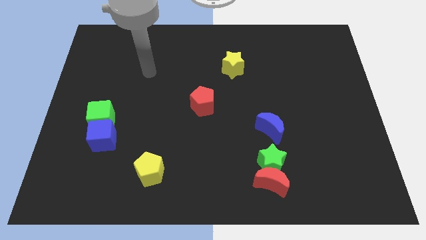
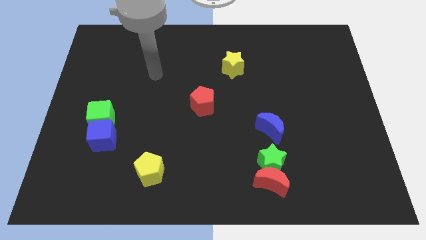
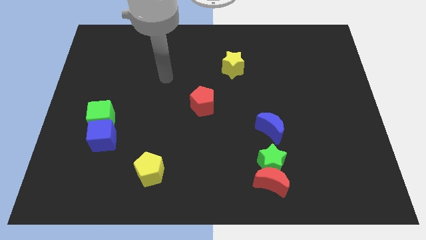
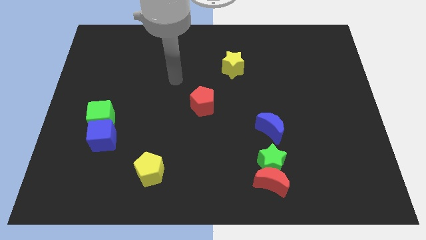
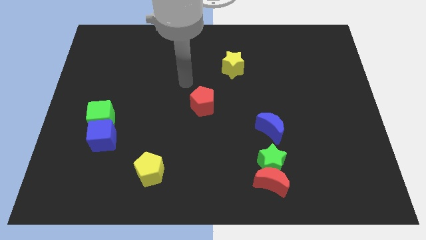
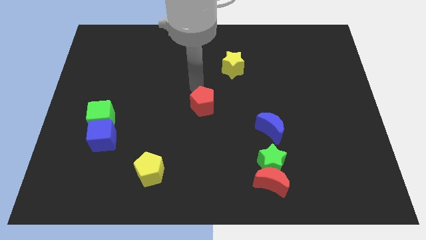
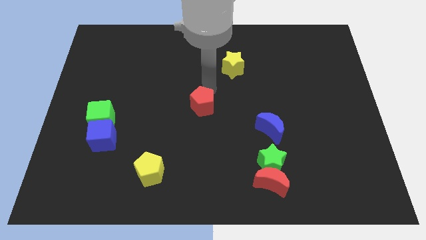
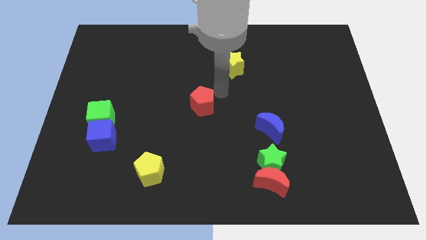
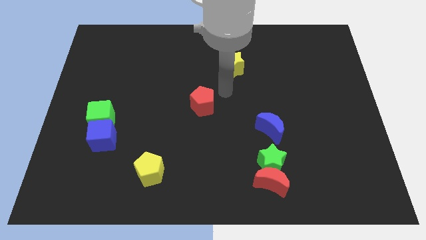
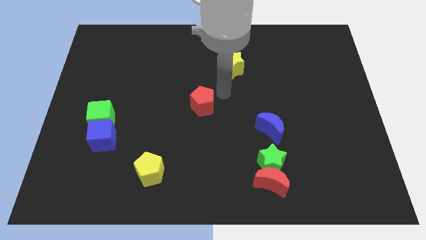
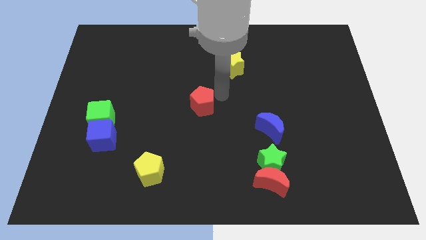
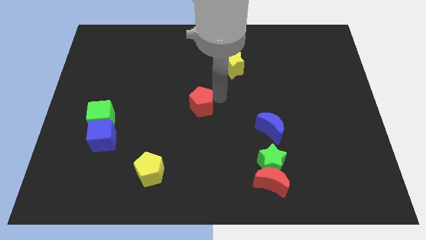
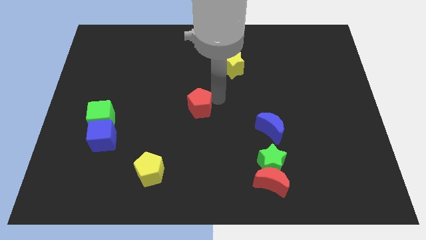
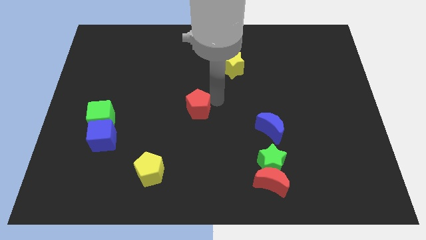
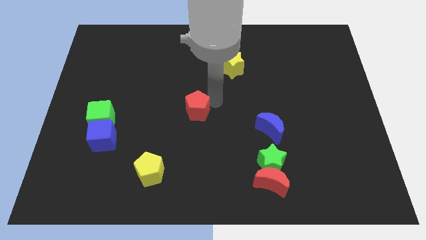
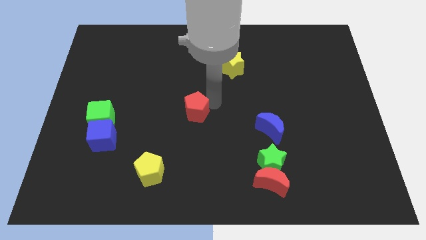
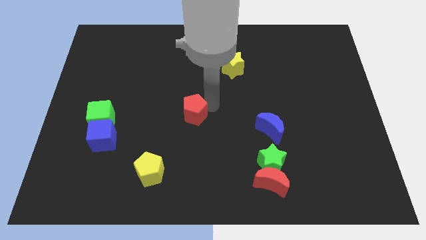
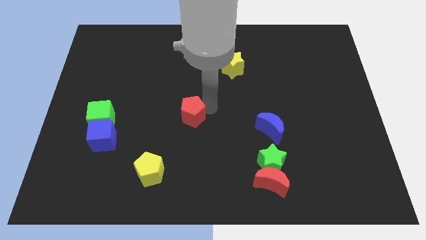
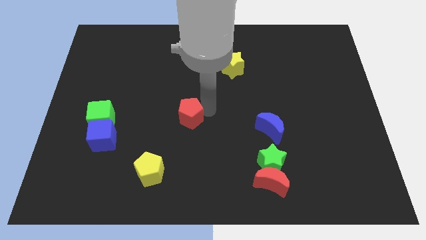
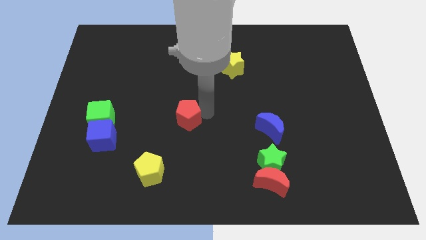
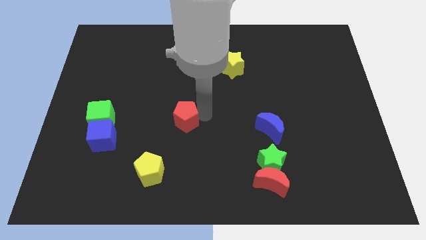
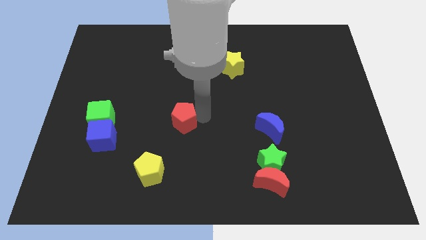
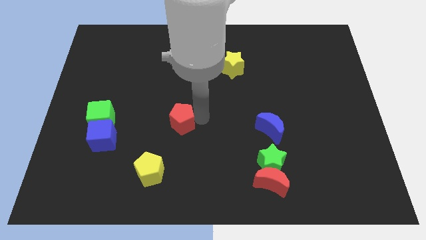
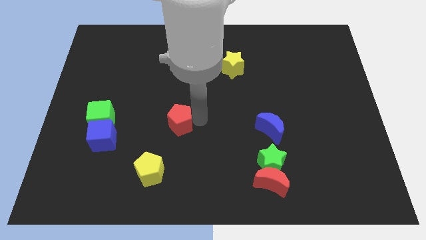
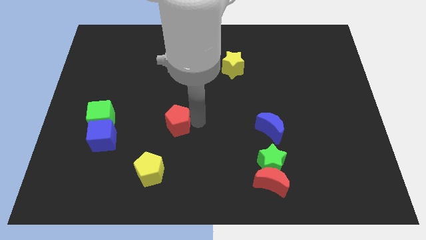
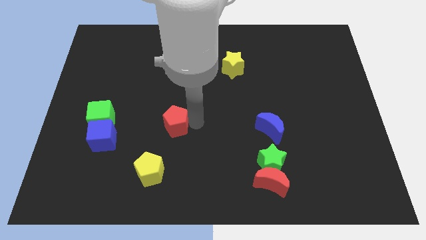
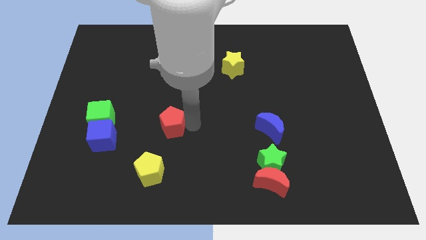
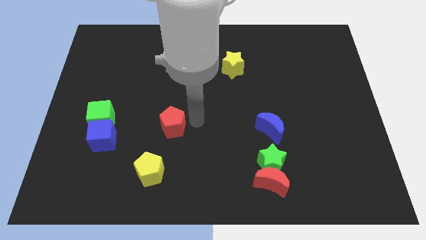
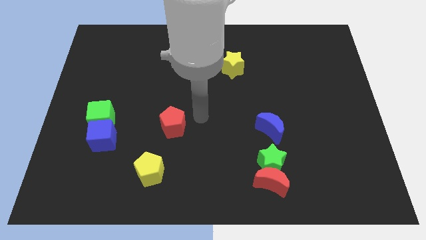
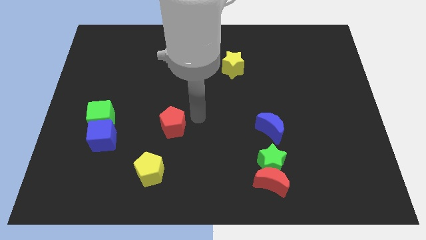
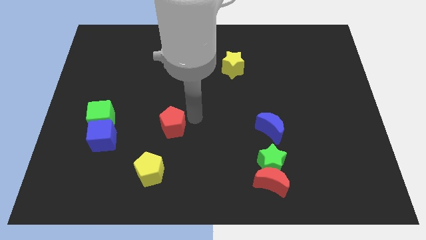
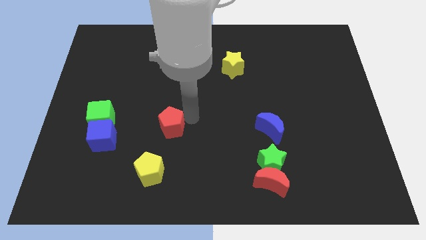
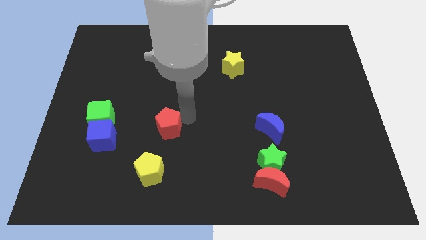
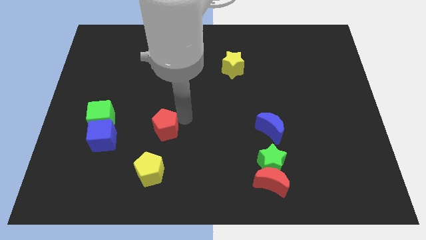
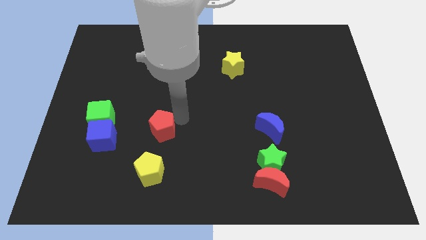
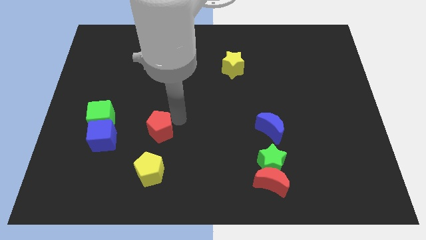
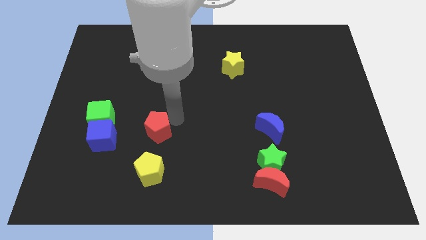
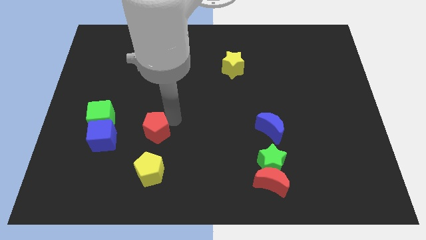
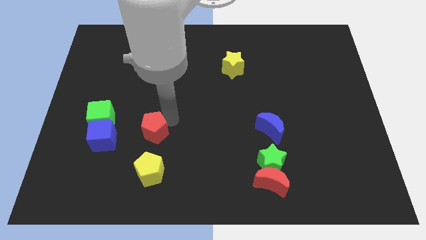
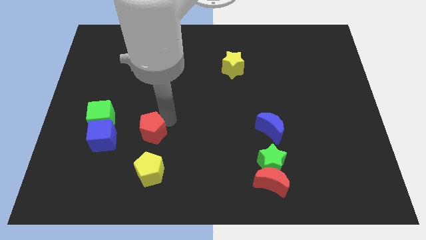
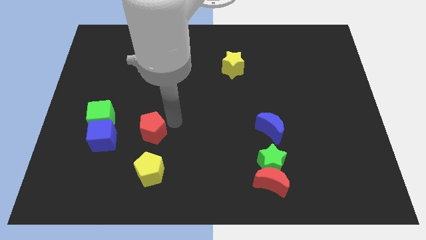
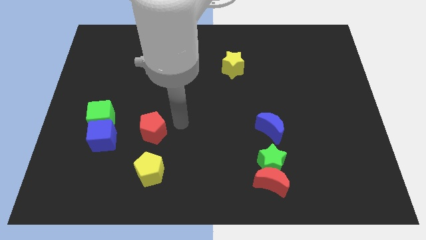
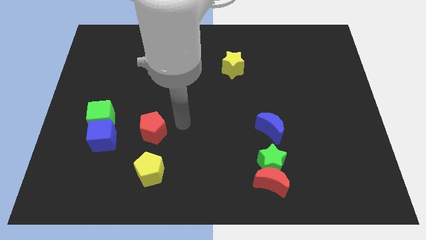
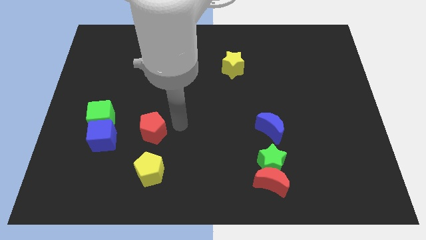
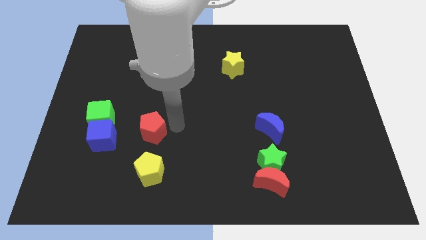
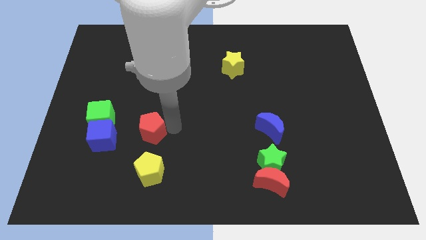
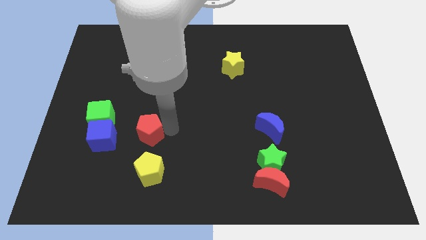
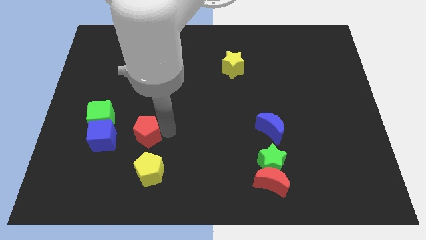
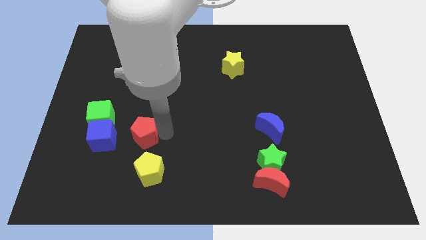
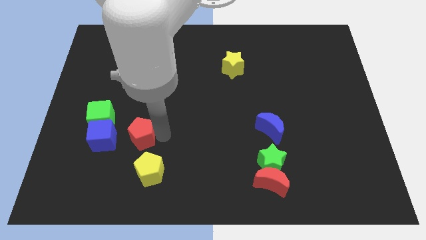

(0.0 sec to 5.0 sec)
slide the red pentagon to the bottom right of the green cube

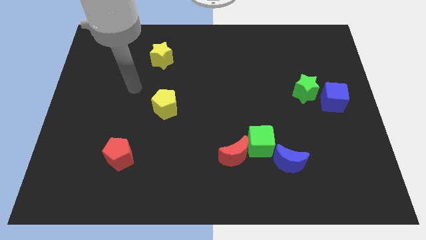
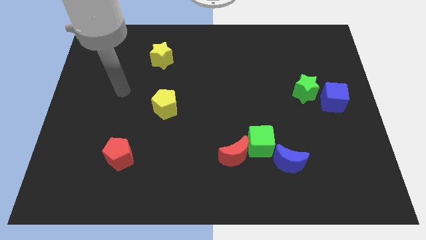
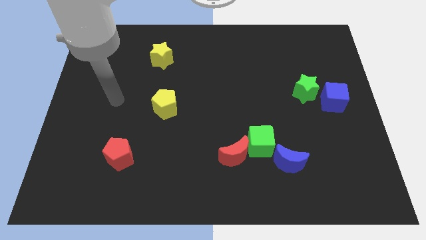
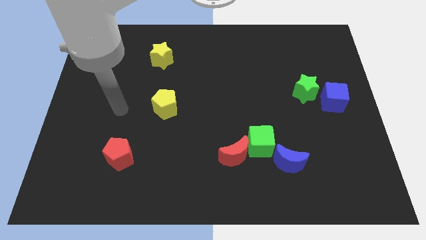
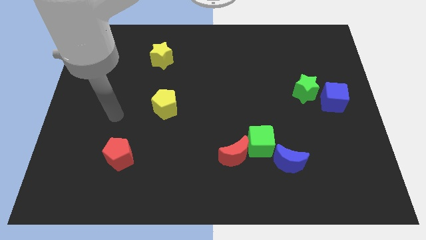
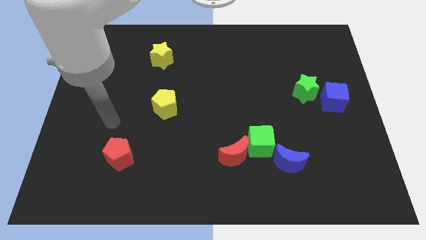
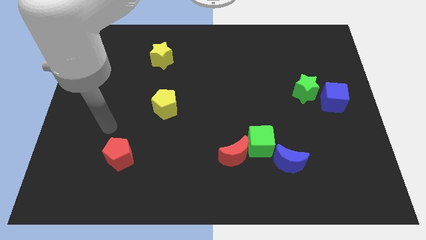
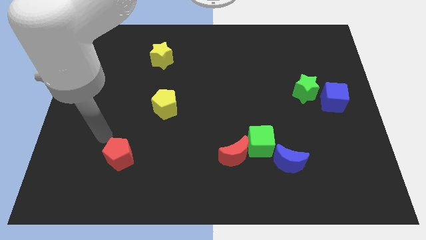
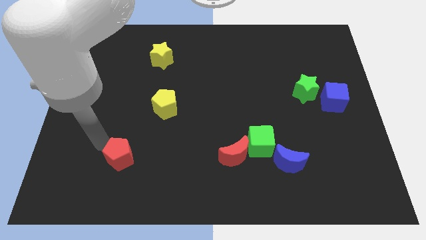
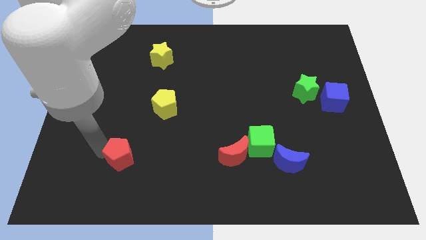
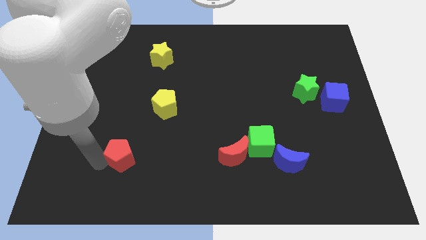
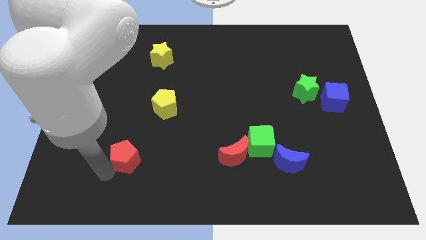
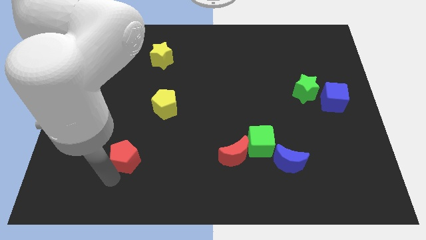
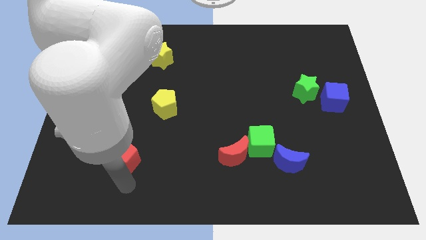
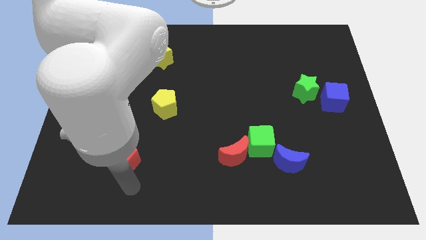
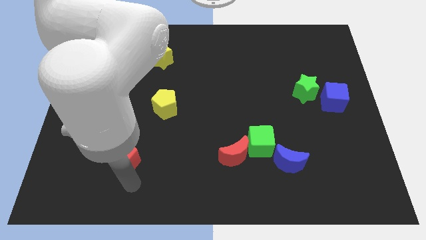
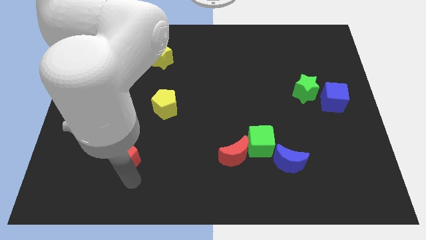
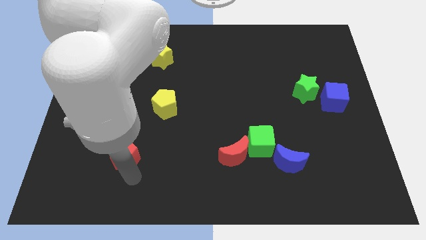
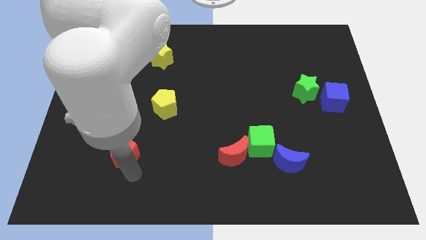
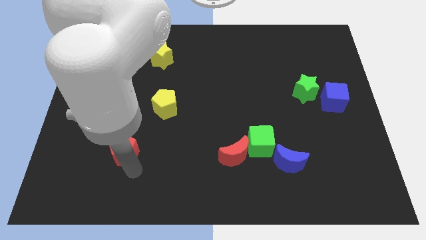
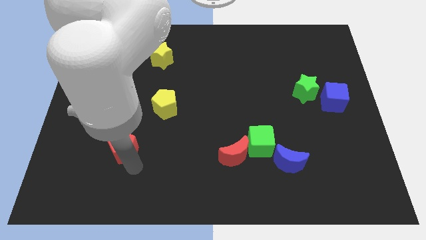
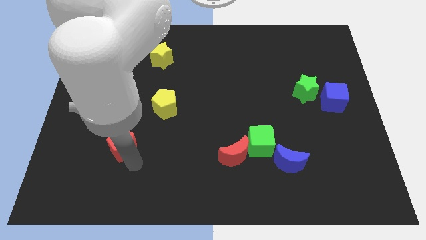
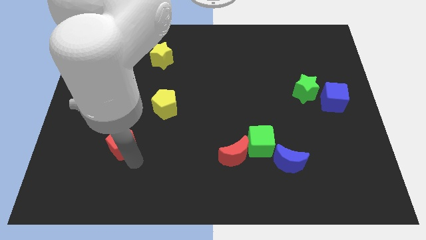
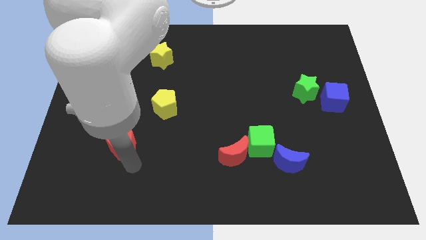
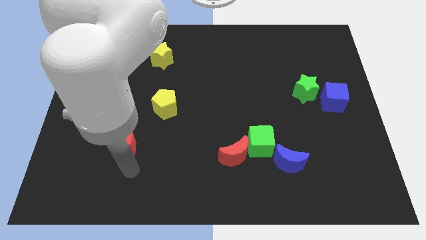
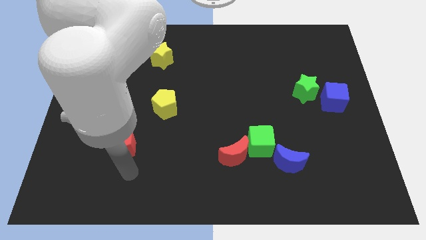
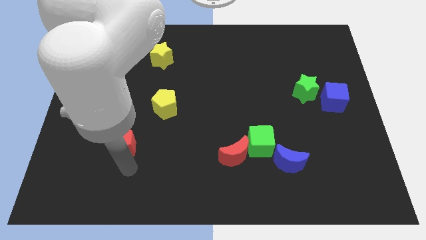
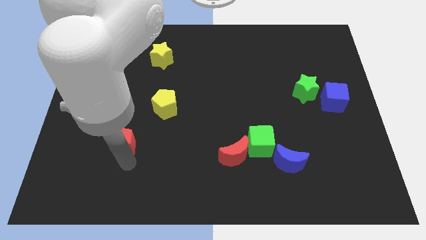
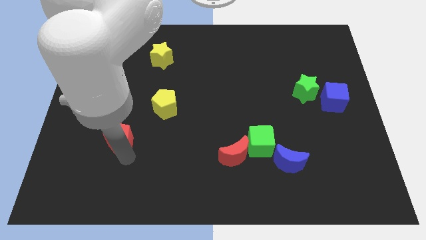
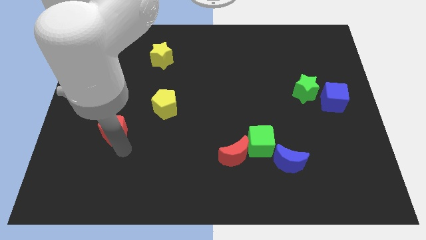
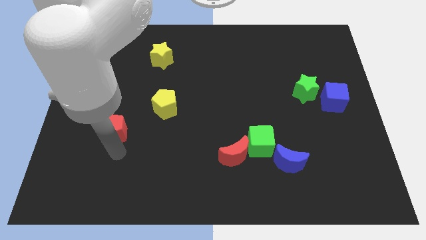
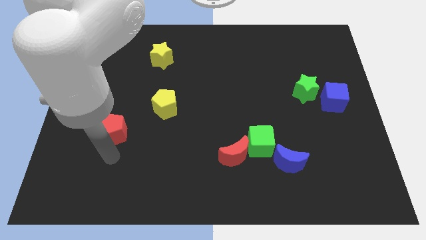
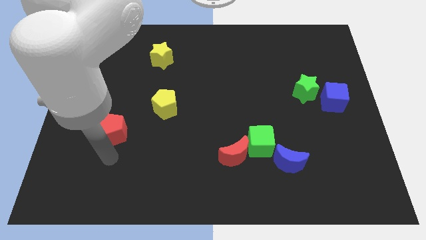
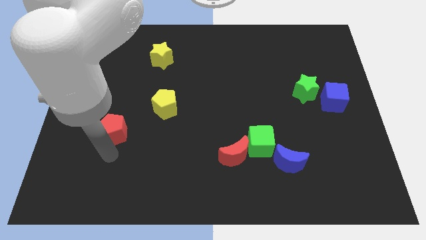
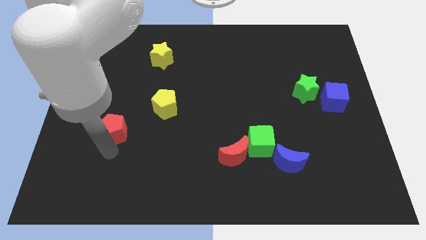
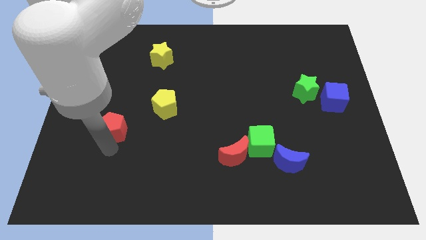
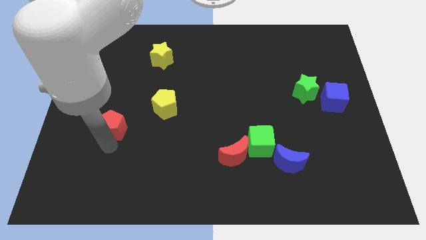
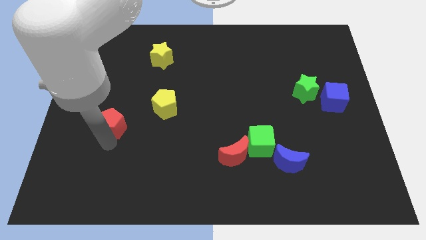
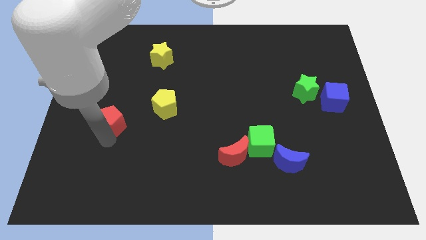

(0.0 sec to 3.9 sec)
move the red pentagon left of the yellow pentagon
